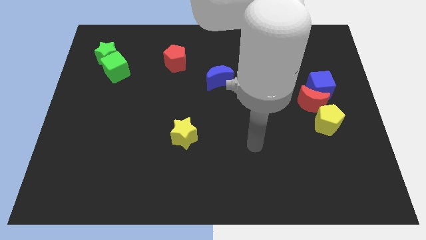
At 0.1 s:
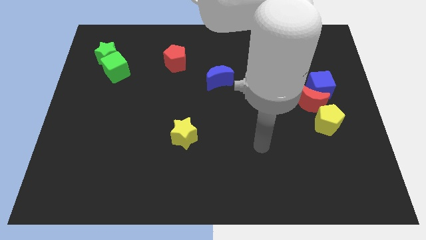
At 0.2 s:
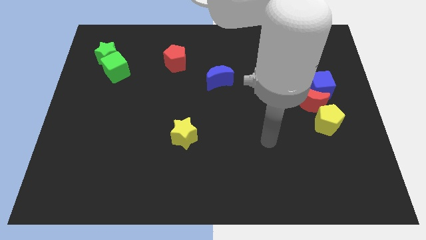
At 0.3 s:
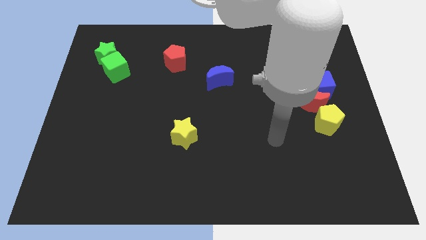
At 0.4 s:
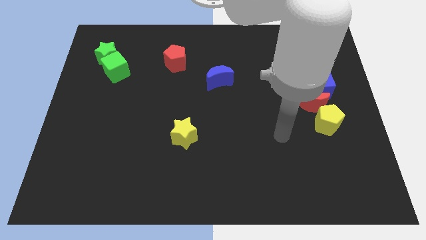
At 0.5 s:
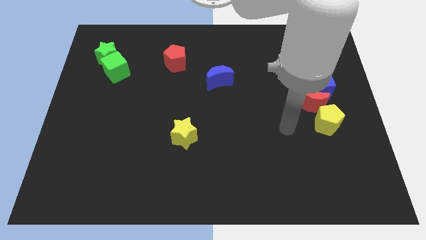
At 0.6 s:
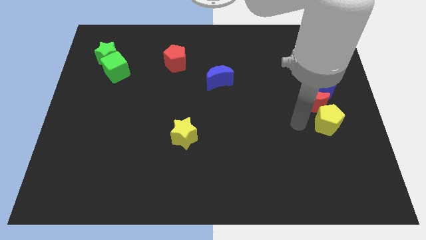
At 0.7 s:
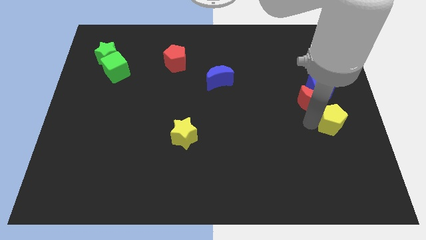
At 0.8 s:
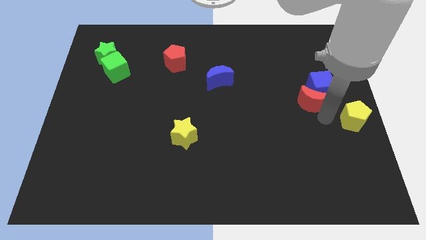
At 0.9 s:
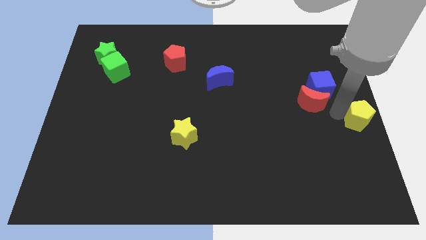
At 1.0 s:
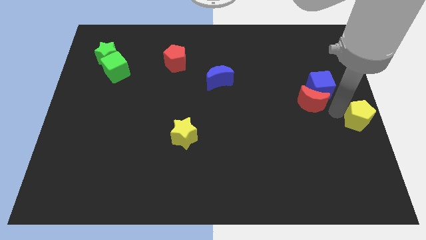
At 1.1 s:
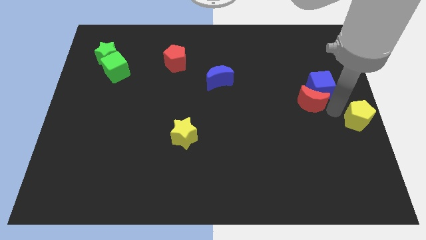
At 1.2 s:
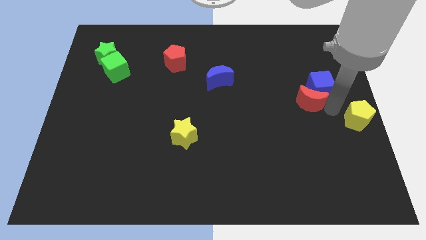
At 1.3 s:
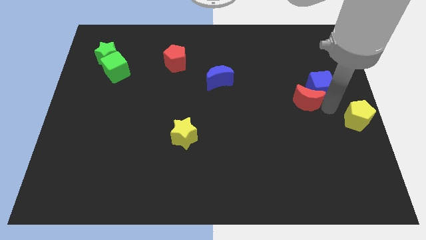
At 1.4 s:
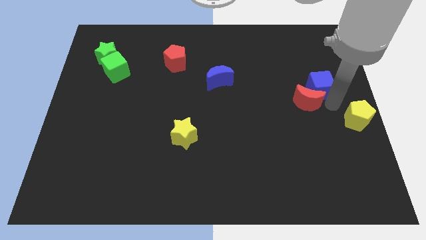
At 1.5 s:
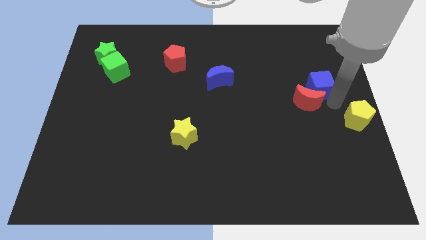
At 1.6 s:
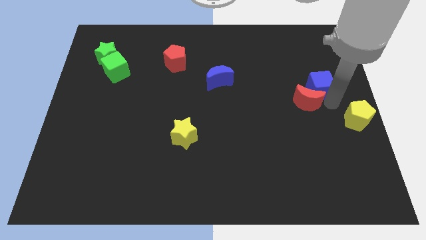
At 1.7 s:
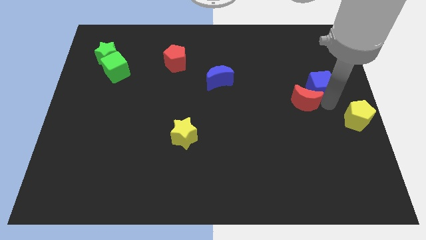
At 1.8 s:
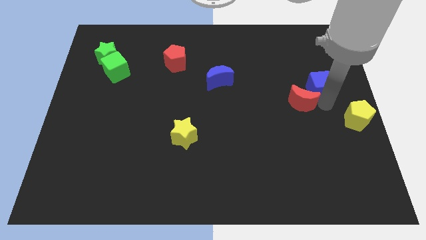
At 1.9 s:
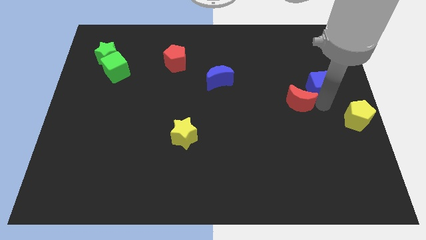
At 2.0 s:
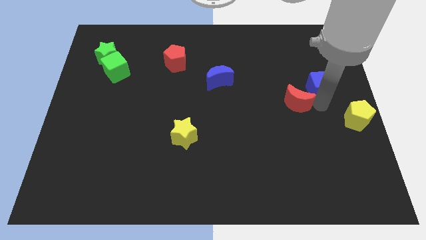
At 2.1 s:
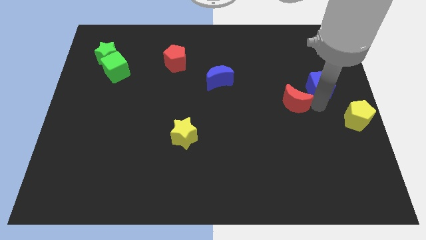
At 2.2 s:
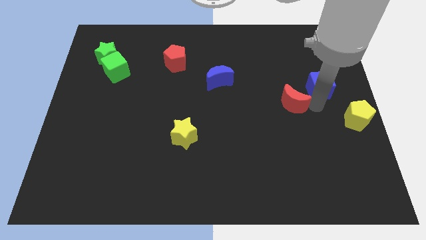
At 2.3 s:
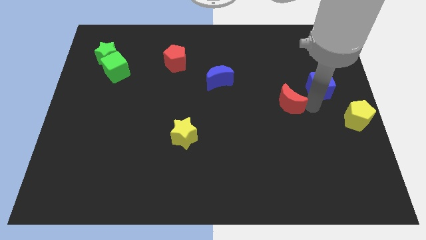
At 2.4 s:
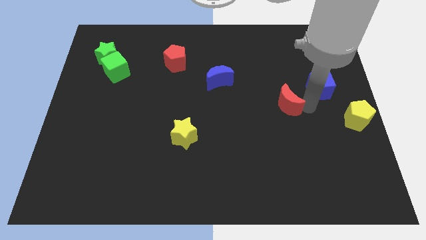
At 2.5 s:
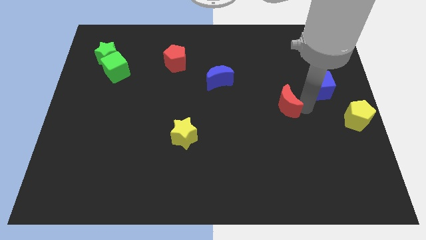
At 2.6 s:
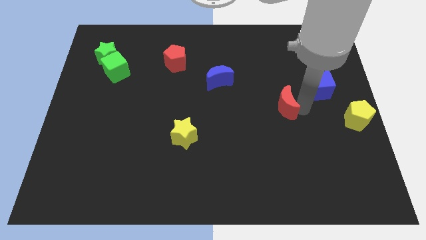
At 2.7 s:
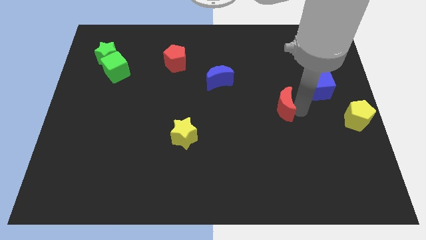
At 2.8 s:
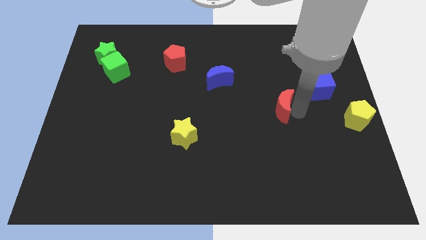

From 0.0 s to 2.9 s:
slightly move the red moon to the left

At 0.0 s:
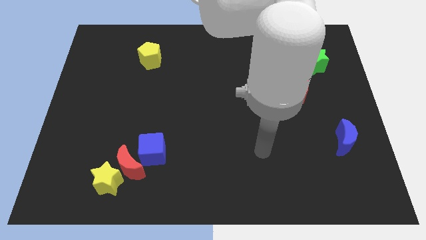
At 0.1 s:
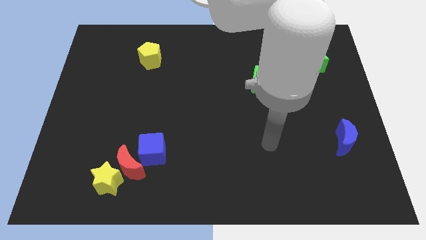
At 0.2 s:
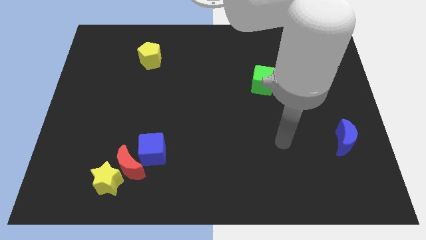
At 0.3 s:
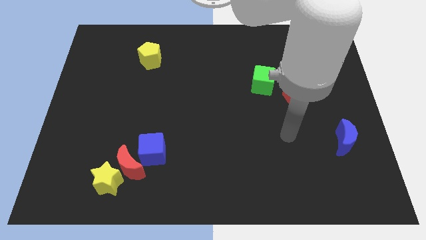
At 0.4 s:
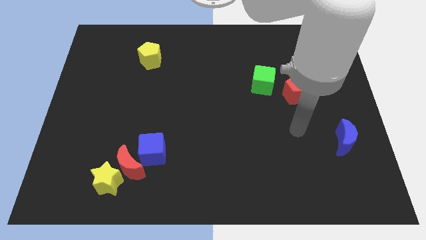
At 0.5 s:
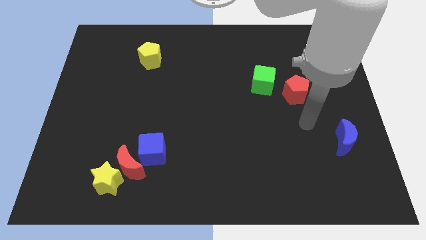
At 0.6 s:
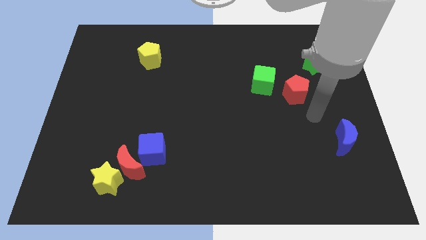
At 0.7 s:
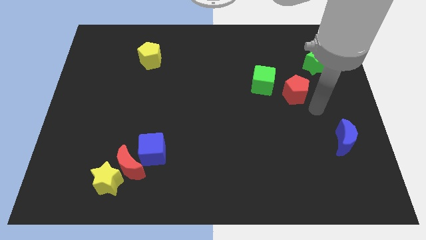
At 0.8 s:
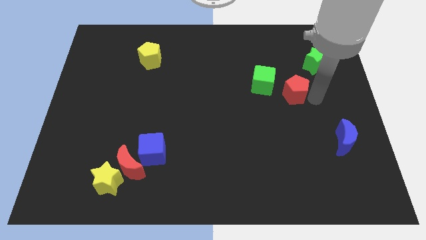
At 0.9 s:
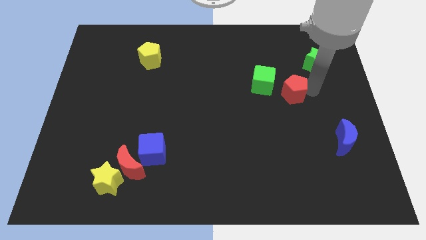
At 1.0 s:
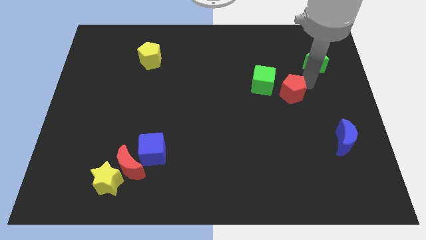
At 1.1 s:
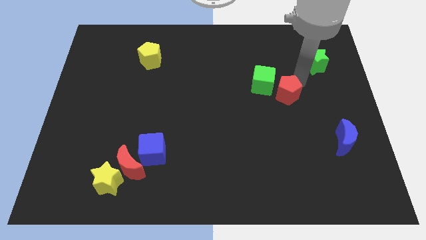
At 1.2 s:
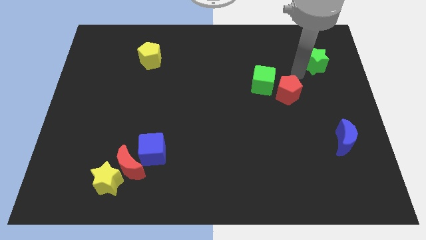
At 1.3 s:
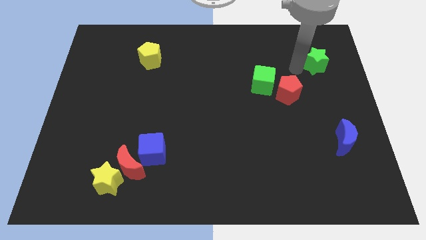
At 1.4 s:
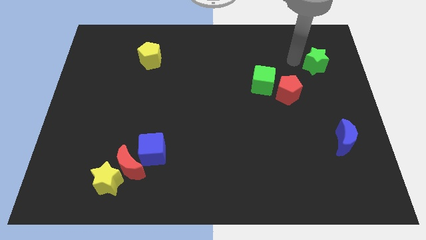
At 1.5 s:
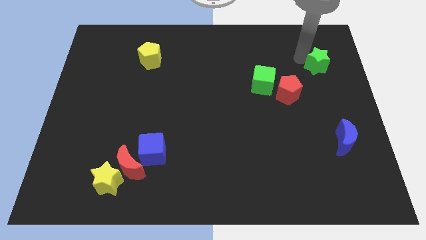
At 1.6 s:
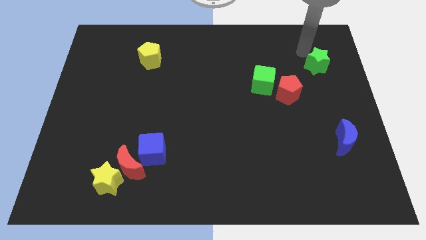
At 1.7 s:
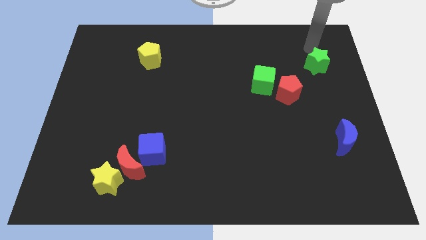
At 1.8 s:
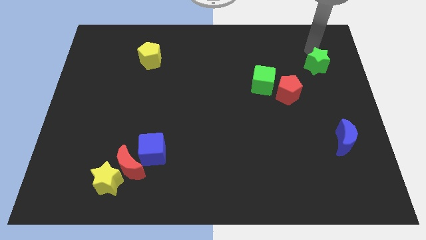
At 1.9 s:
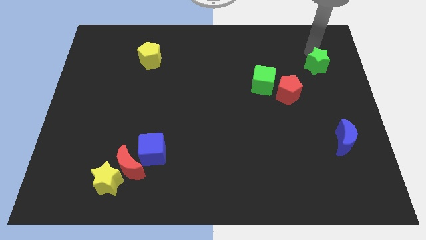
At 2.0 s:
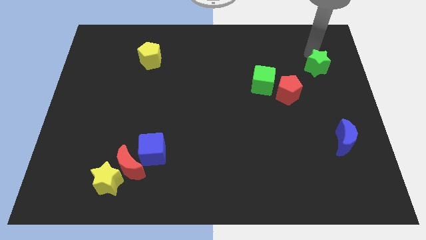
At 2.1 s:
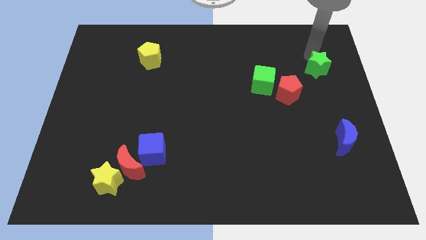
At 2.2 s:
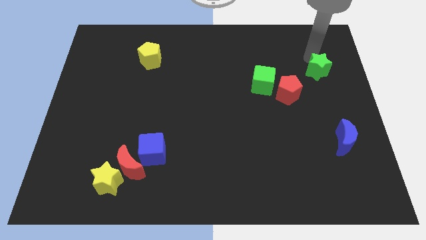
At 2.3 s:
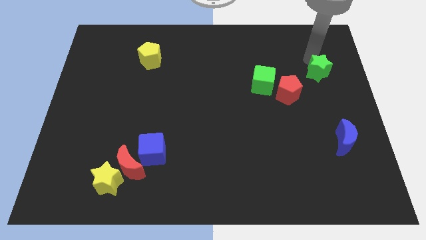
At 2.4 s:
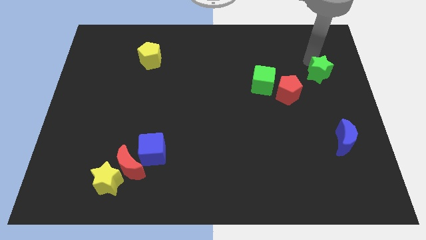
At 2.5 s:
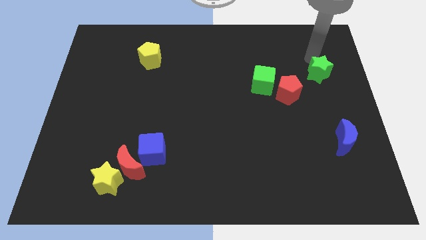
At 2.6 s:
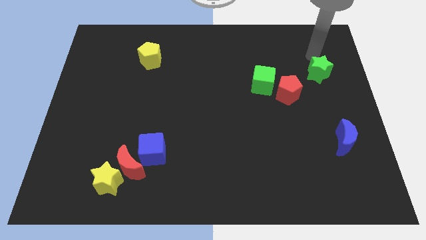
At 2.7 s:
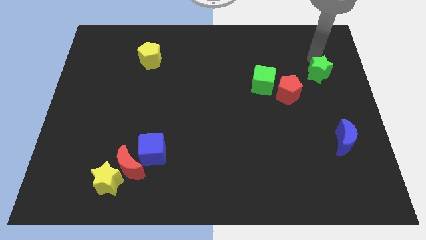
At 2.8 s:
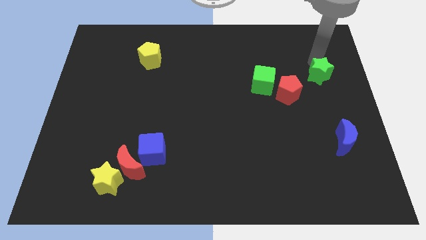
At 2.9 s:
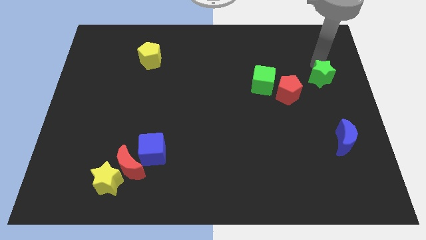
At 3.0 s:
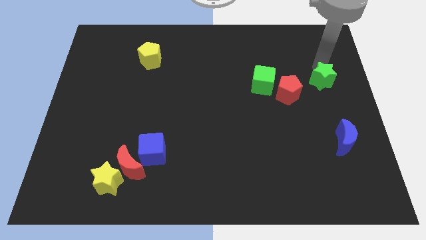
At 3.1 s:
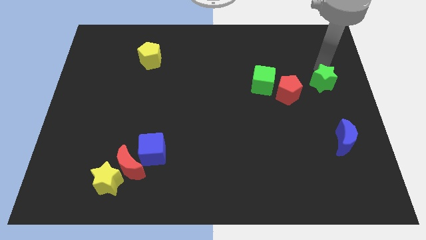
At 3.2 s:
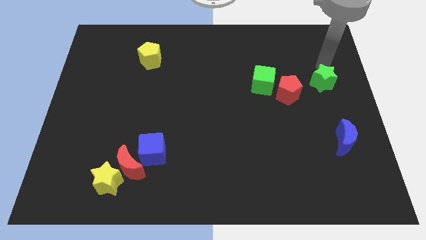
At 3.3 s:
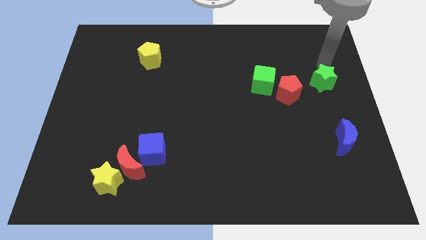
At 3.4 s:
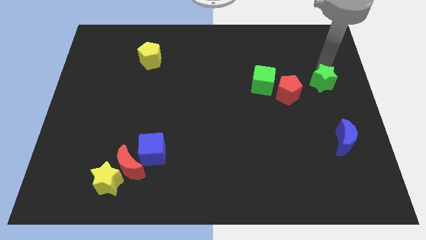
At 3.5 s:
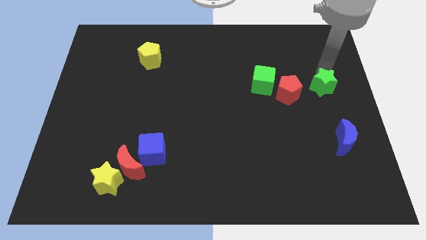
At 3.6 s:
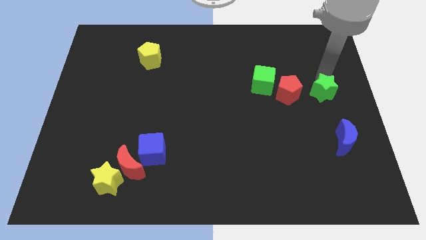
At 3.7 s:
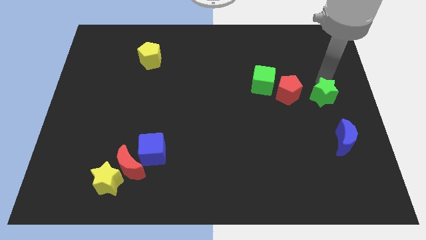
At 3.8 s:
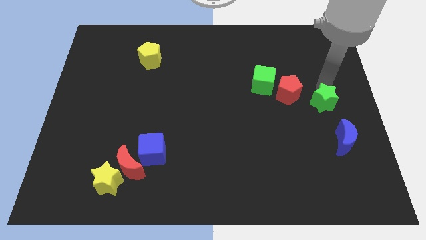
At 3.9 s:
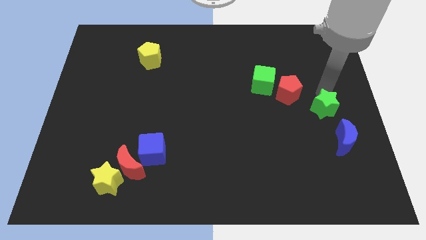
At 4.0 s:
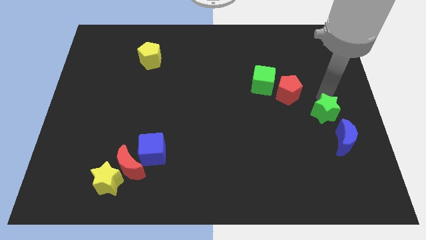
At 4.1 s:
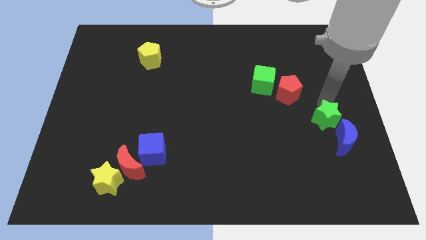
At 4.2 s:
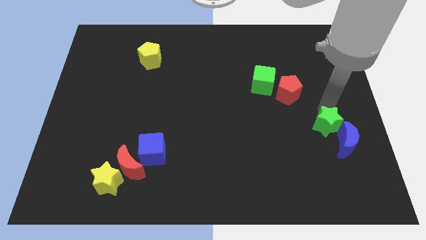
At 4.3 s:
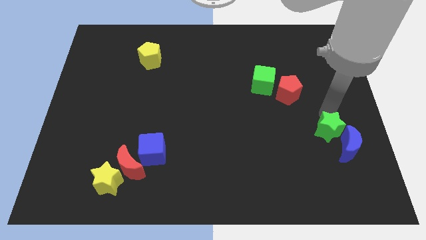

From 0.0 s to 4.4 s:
push the green star down

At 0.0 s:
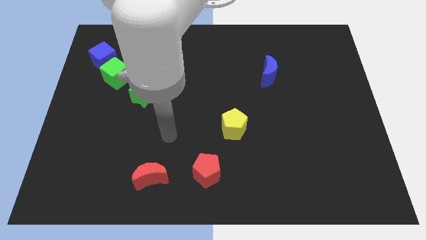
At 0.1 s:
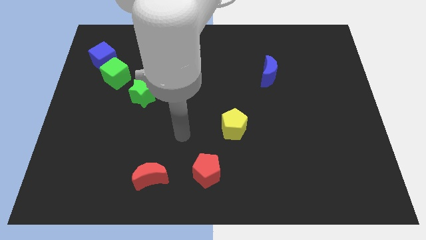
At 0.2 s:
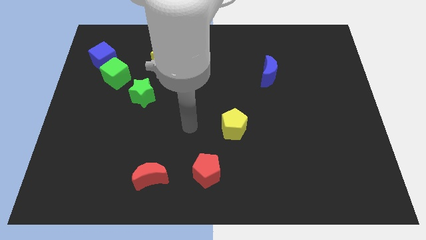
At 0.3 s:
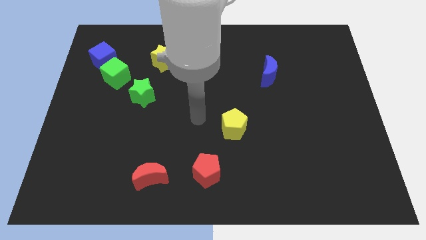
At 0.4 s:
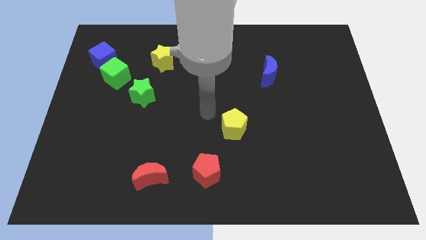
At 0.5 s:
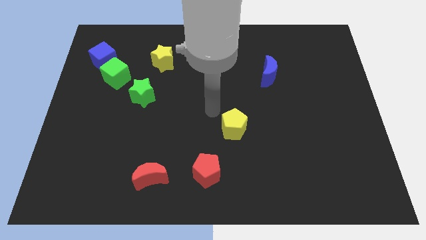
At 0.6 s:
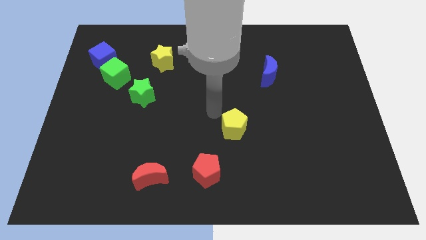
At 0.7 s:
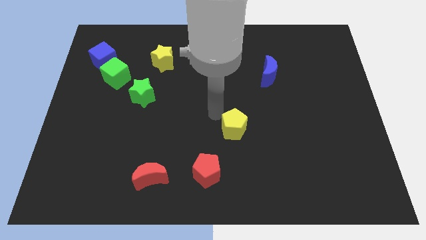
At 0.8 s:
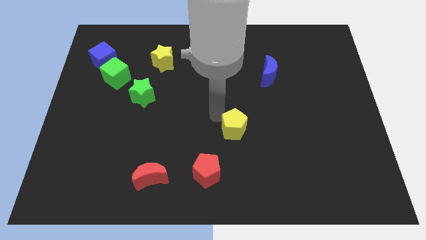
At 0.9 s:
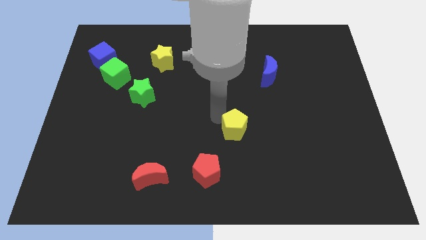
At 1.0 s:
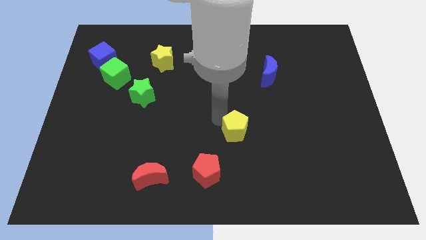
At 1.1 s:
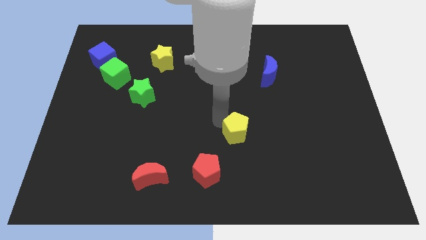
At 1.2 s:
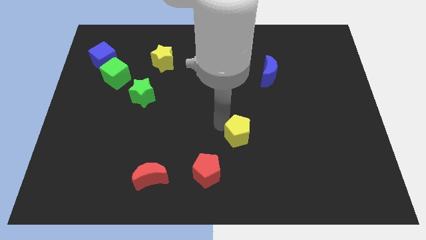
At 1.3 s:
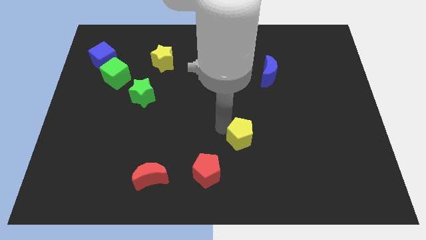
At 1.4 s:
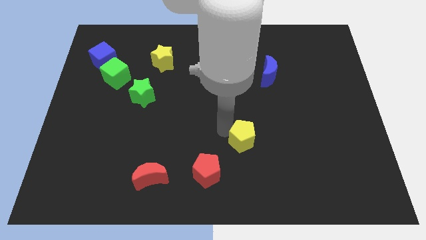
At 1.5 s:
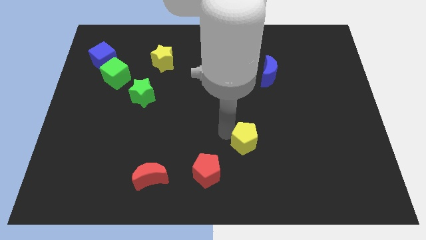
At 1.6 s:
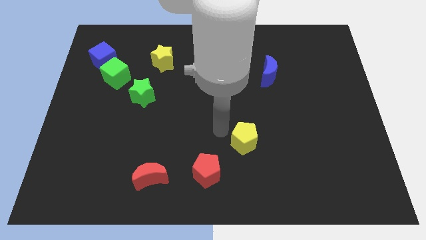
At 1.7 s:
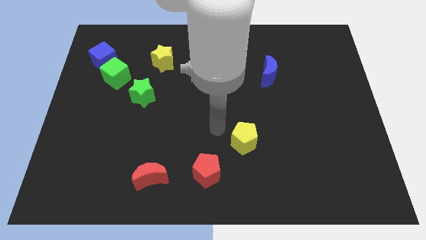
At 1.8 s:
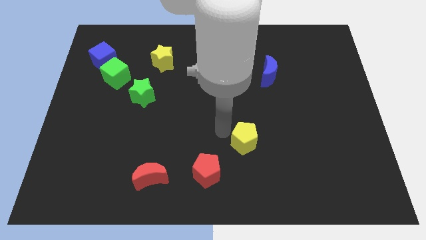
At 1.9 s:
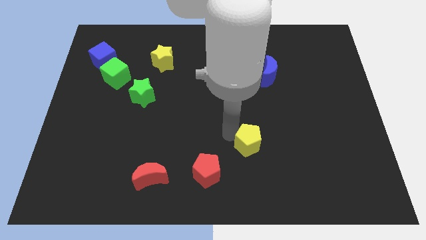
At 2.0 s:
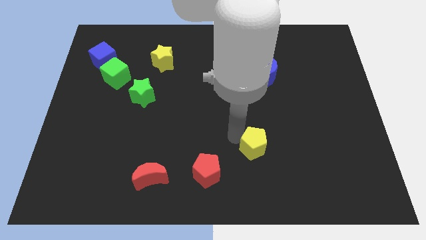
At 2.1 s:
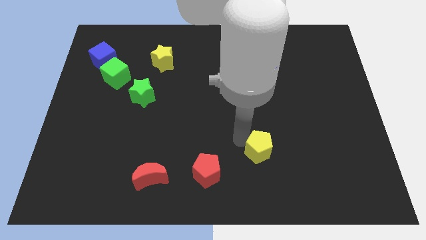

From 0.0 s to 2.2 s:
push the yellow pentagon downwards and to the right diagonally a little
